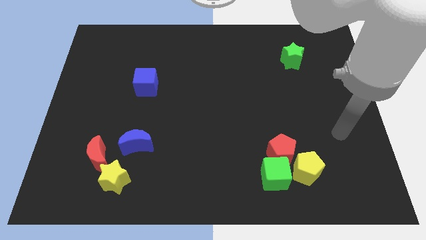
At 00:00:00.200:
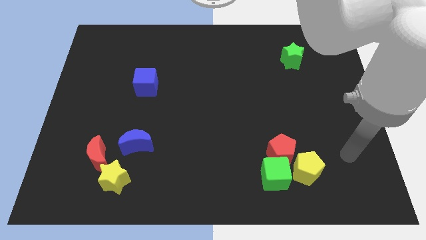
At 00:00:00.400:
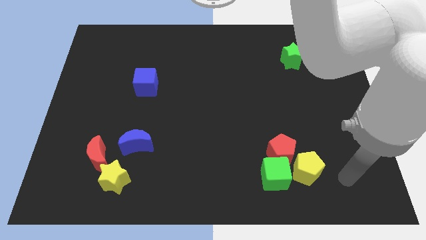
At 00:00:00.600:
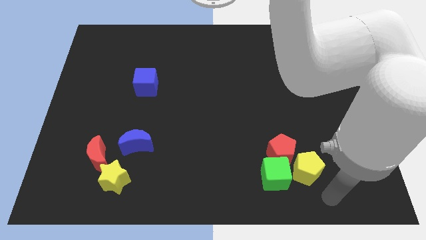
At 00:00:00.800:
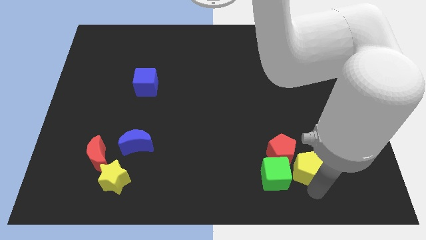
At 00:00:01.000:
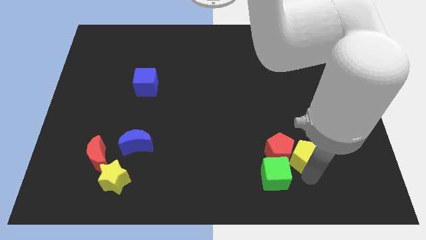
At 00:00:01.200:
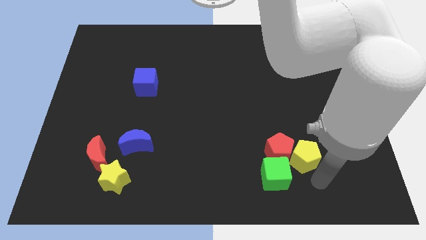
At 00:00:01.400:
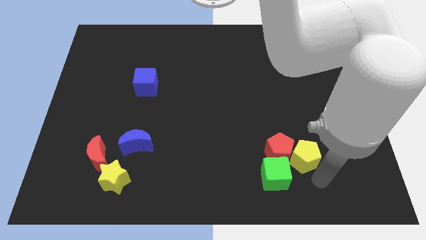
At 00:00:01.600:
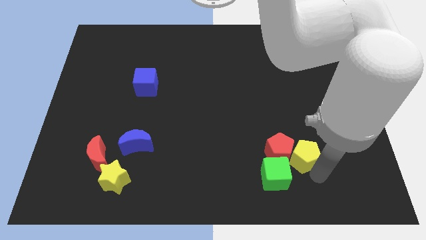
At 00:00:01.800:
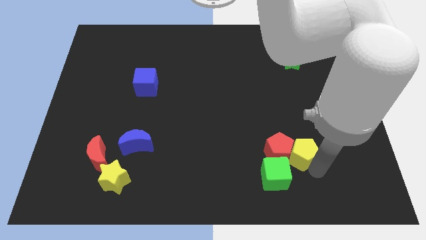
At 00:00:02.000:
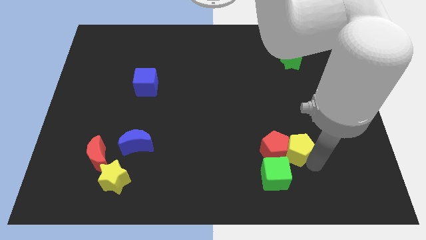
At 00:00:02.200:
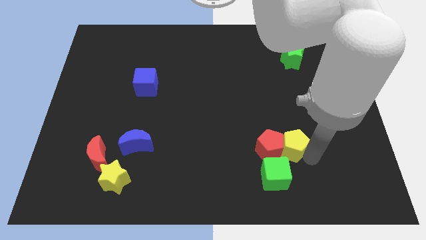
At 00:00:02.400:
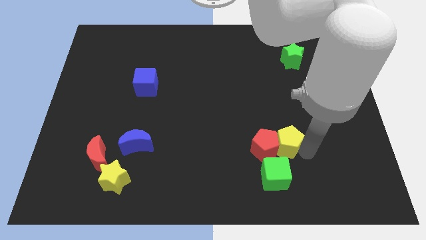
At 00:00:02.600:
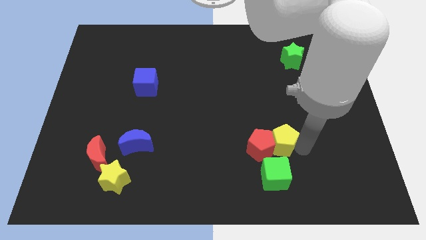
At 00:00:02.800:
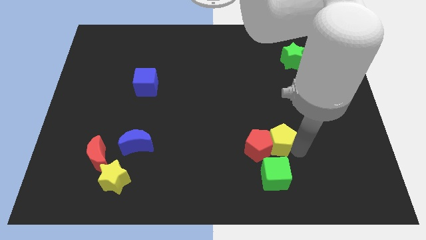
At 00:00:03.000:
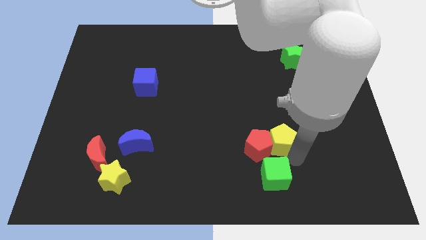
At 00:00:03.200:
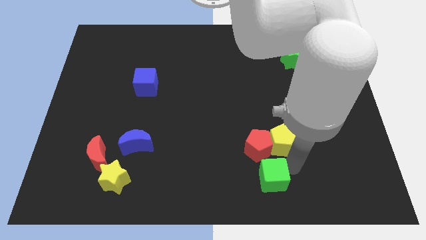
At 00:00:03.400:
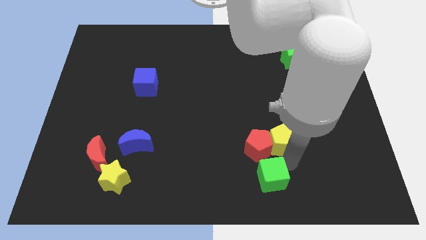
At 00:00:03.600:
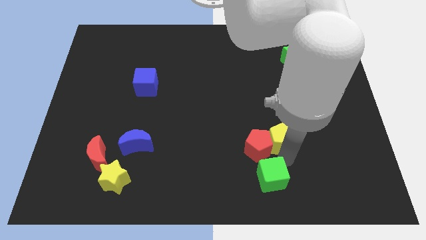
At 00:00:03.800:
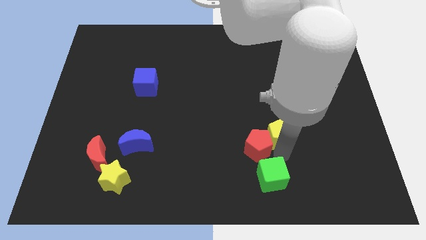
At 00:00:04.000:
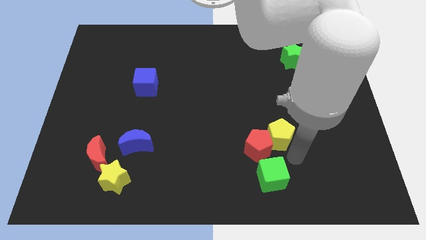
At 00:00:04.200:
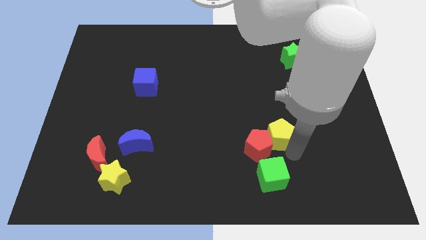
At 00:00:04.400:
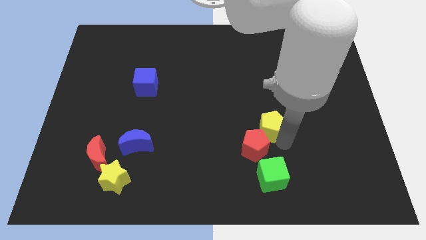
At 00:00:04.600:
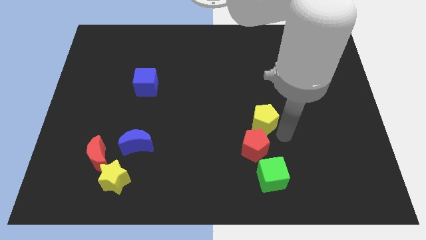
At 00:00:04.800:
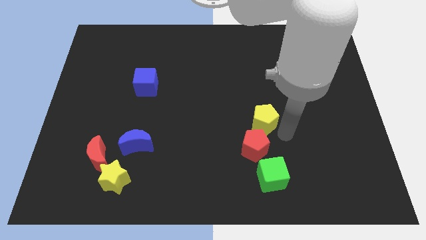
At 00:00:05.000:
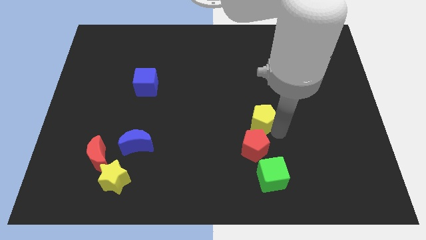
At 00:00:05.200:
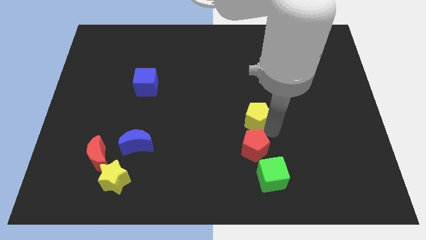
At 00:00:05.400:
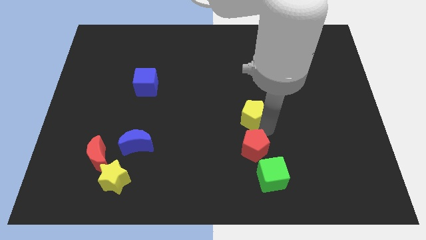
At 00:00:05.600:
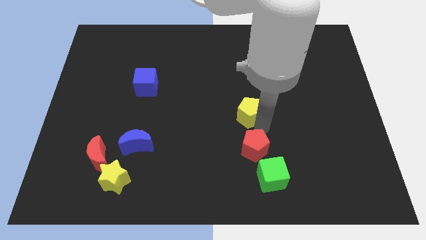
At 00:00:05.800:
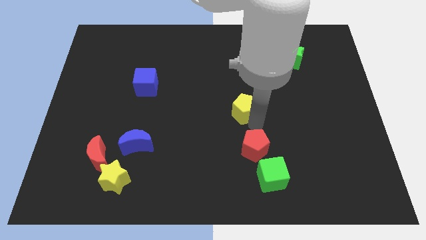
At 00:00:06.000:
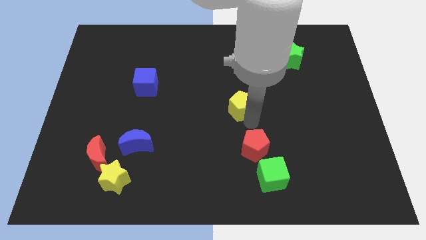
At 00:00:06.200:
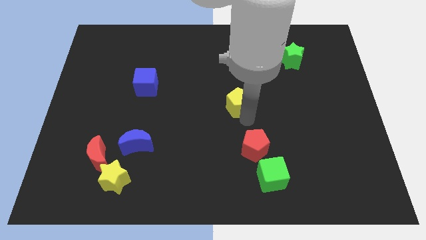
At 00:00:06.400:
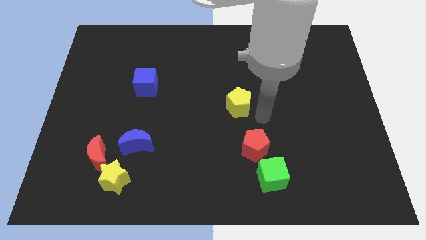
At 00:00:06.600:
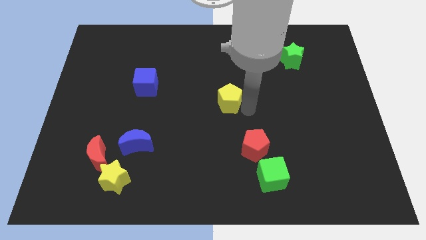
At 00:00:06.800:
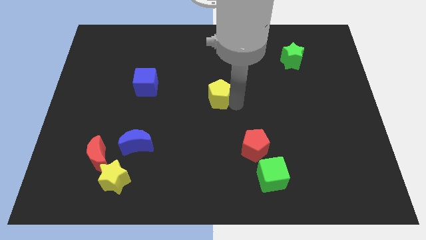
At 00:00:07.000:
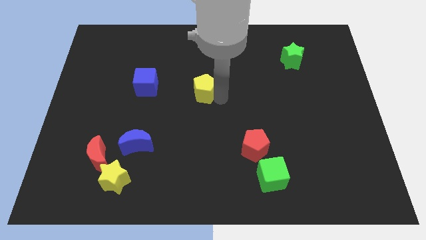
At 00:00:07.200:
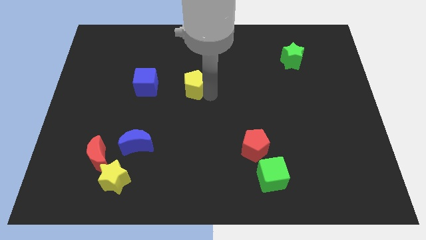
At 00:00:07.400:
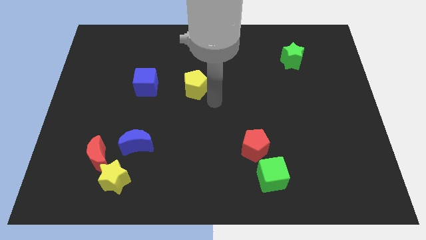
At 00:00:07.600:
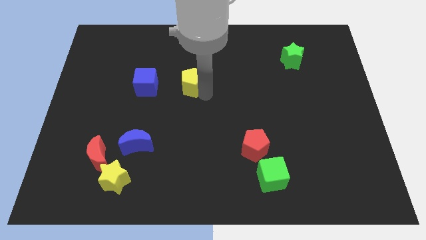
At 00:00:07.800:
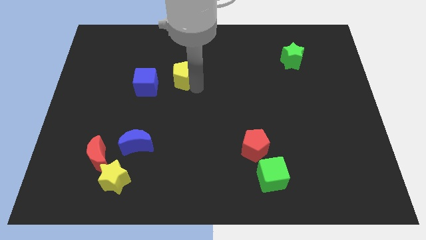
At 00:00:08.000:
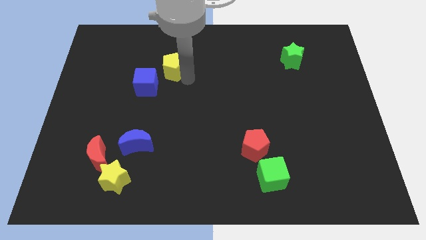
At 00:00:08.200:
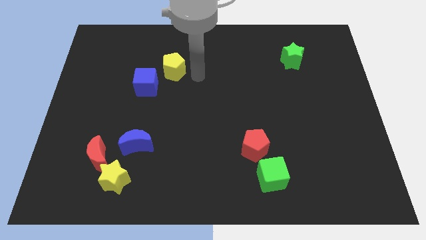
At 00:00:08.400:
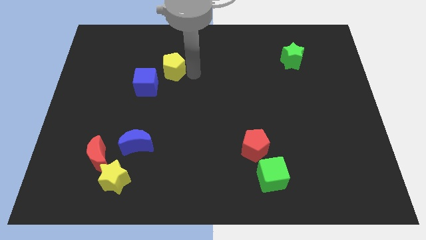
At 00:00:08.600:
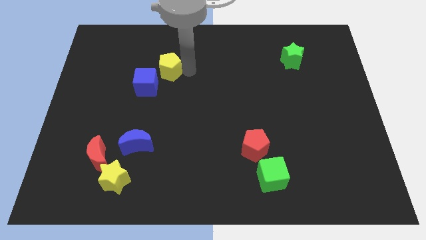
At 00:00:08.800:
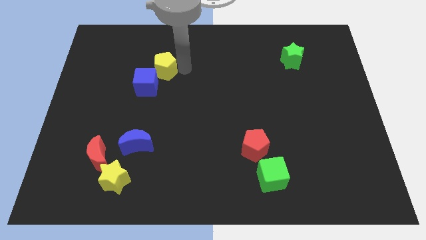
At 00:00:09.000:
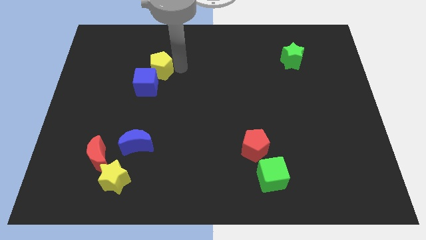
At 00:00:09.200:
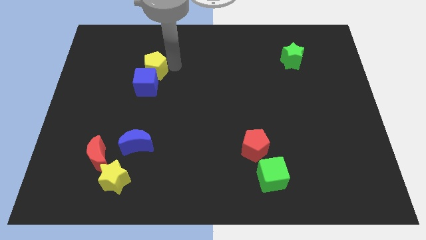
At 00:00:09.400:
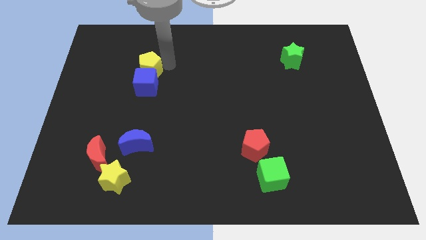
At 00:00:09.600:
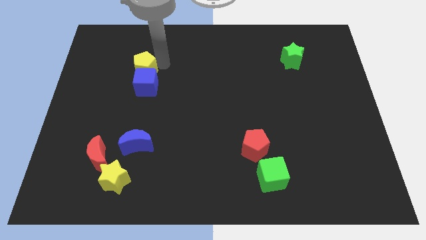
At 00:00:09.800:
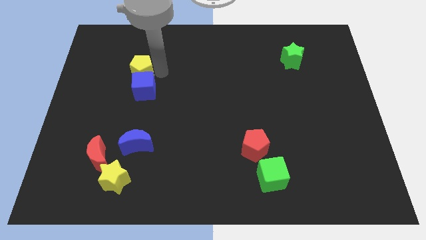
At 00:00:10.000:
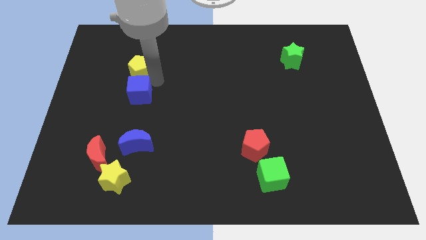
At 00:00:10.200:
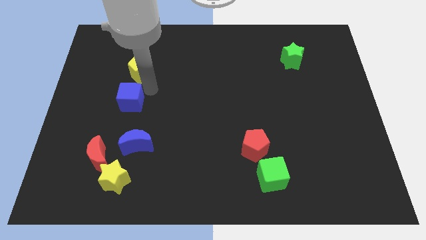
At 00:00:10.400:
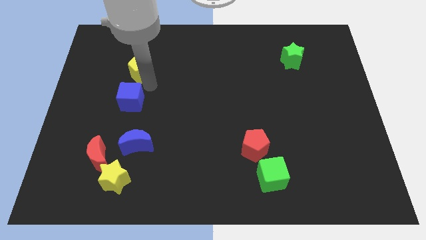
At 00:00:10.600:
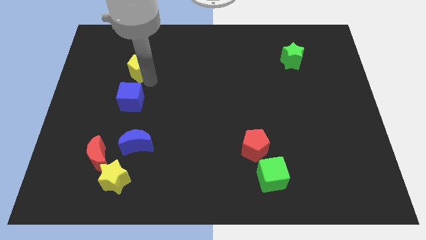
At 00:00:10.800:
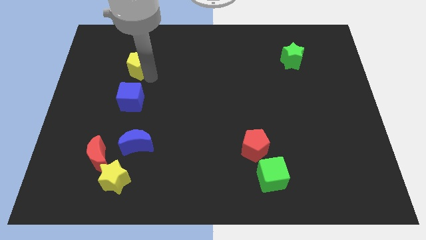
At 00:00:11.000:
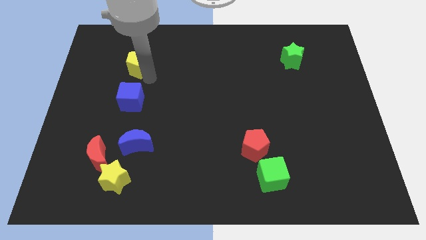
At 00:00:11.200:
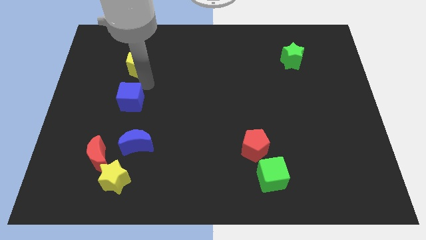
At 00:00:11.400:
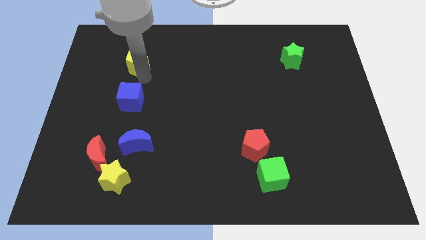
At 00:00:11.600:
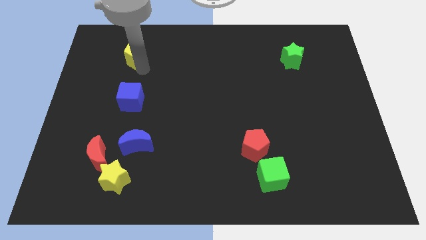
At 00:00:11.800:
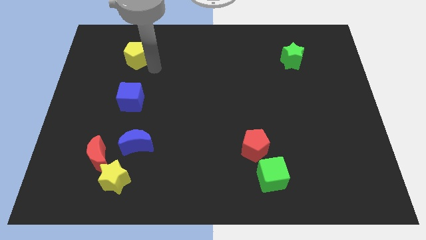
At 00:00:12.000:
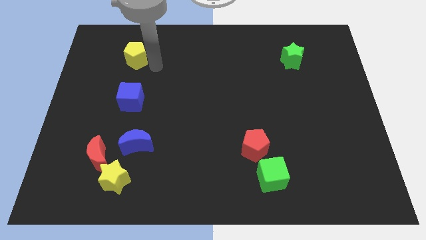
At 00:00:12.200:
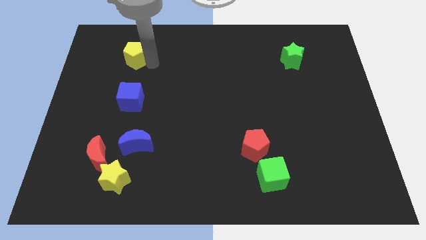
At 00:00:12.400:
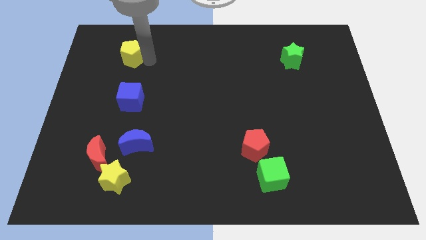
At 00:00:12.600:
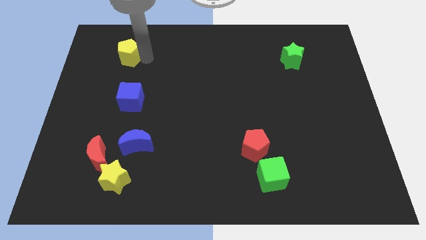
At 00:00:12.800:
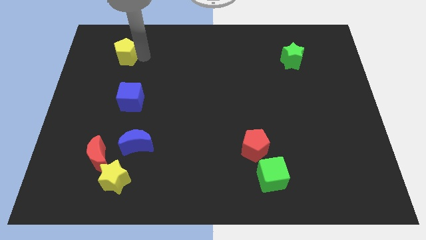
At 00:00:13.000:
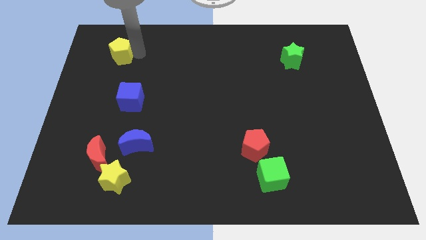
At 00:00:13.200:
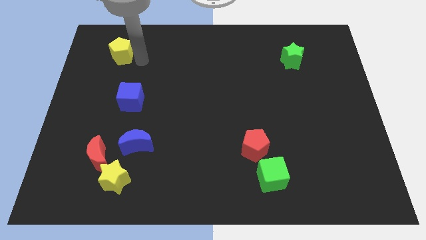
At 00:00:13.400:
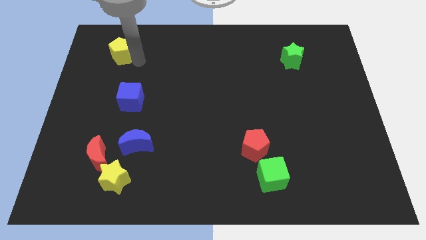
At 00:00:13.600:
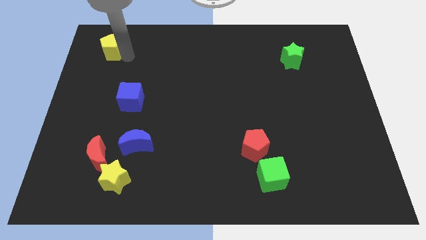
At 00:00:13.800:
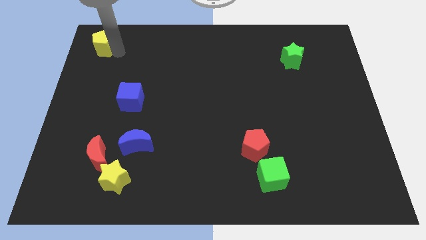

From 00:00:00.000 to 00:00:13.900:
put the yellow pentagon to the top left of the board
